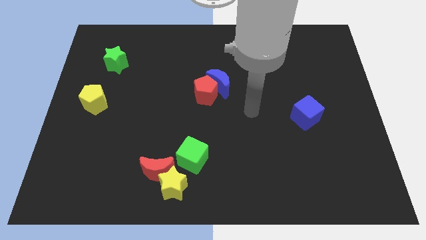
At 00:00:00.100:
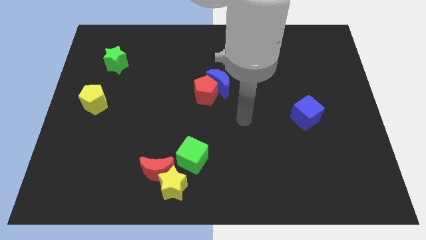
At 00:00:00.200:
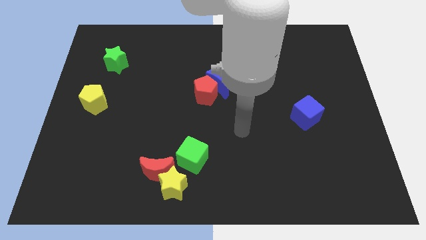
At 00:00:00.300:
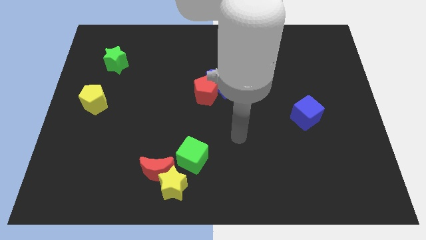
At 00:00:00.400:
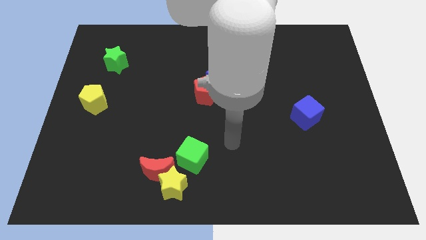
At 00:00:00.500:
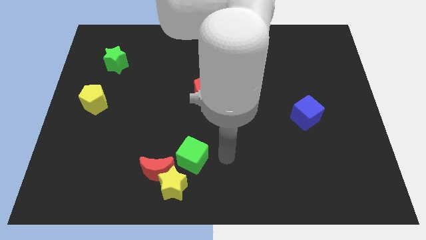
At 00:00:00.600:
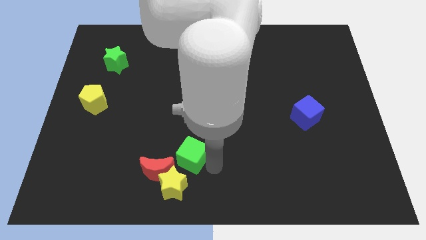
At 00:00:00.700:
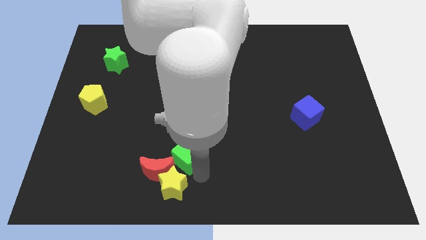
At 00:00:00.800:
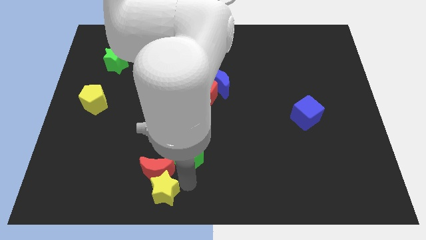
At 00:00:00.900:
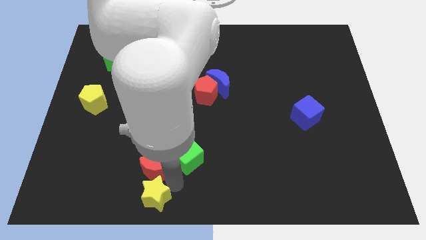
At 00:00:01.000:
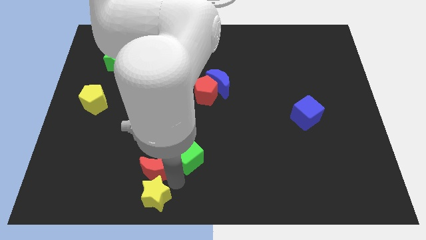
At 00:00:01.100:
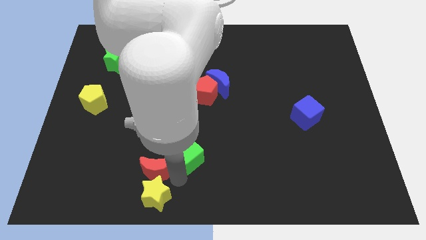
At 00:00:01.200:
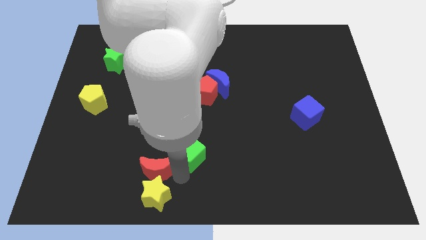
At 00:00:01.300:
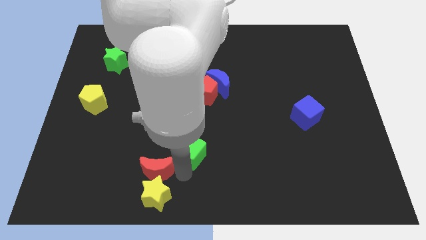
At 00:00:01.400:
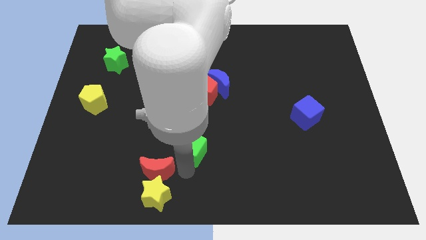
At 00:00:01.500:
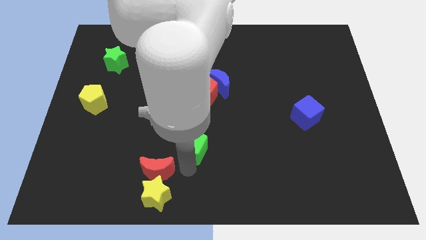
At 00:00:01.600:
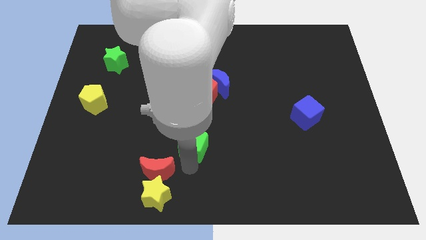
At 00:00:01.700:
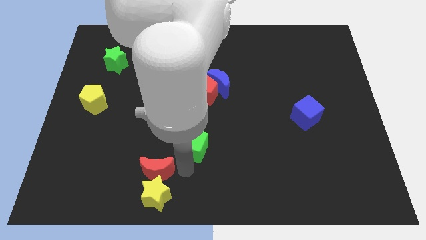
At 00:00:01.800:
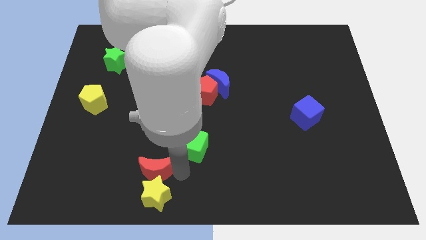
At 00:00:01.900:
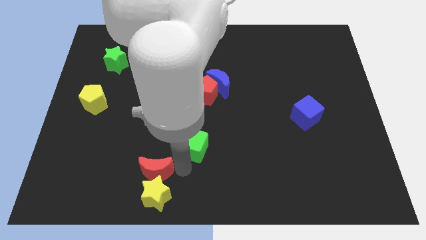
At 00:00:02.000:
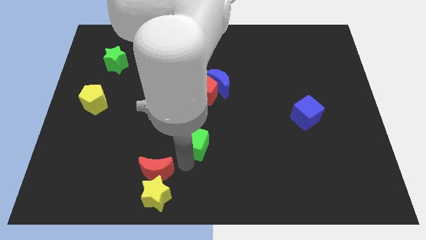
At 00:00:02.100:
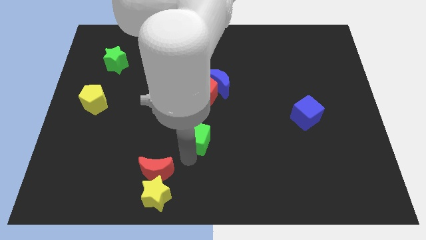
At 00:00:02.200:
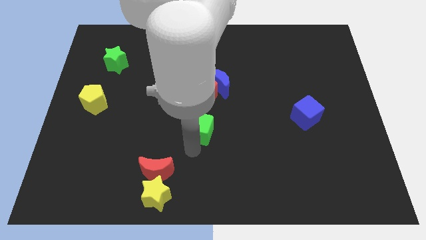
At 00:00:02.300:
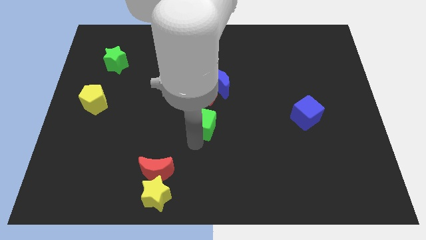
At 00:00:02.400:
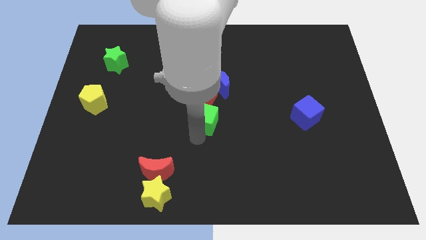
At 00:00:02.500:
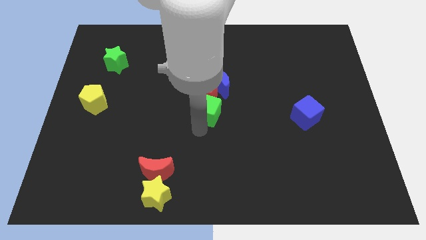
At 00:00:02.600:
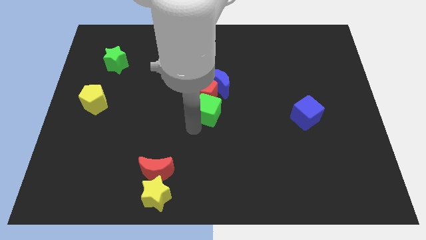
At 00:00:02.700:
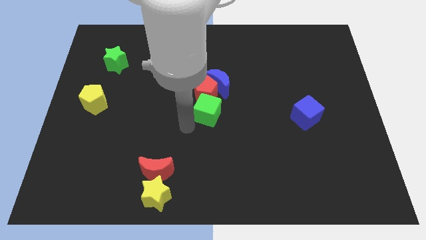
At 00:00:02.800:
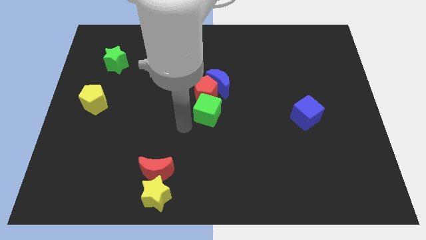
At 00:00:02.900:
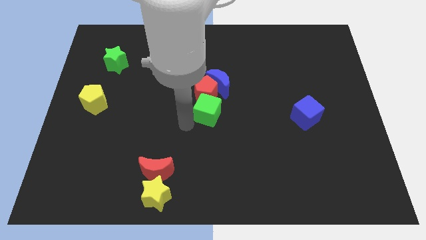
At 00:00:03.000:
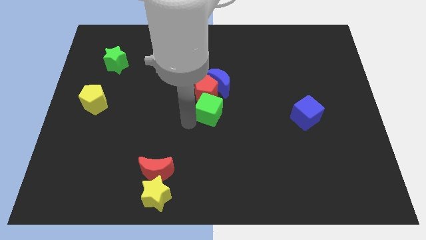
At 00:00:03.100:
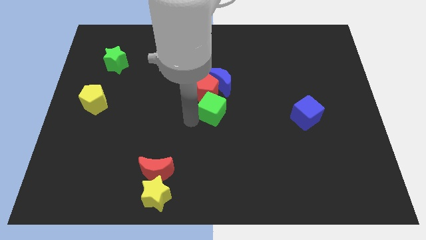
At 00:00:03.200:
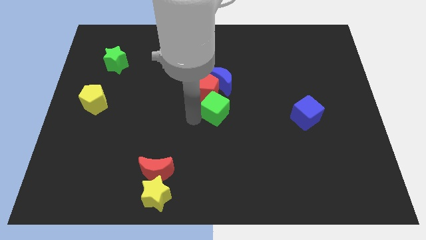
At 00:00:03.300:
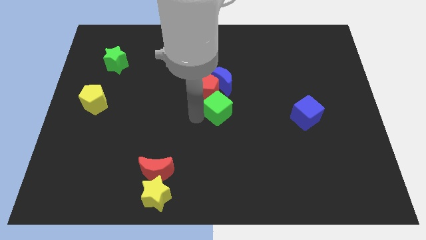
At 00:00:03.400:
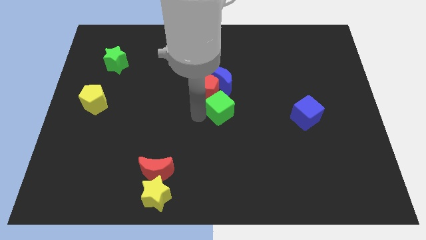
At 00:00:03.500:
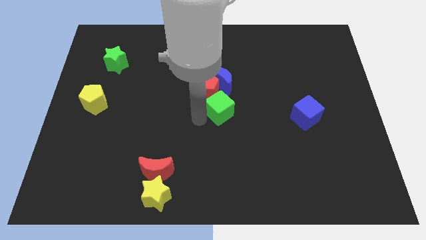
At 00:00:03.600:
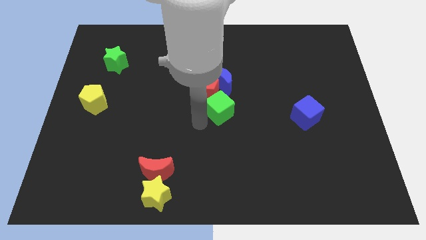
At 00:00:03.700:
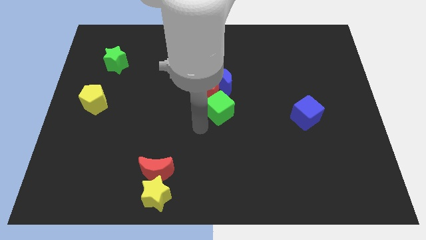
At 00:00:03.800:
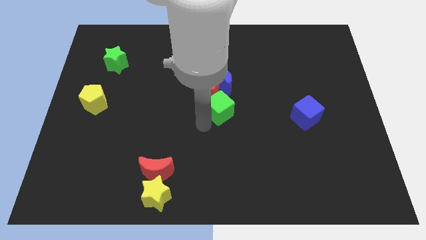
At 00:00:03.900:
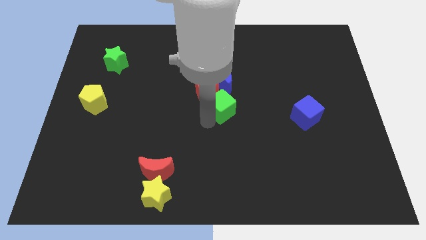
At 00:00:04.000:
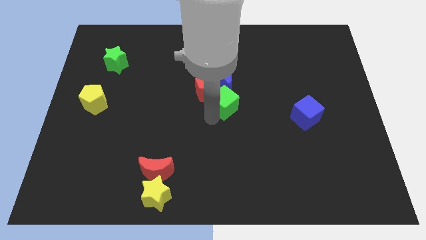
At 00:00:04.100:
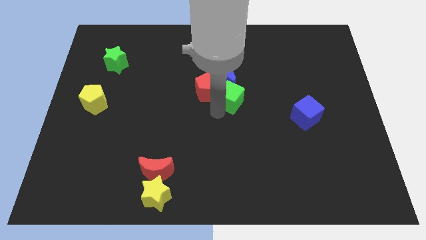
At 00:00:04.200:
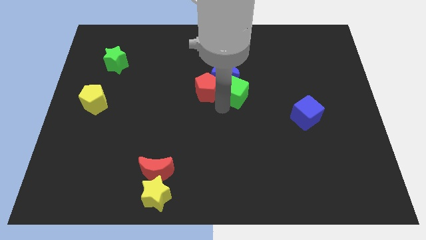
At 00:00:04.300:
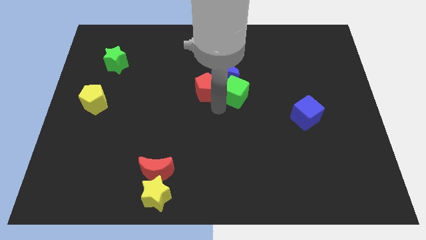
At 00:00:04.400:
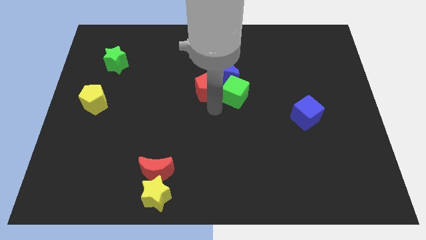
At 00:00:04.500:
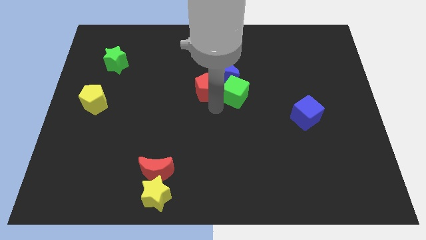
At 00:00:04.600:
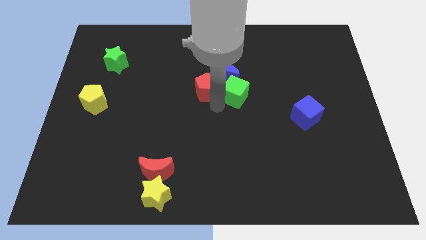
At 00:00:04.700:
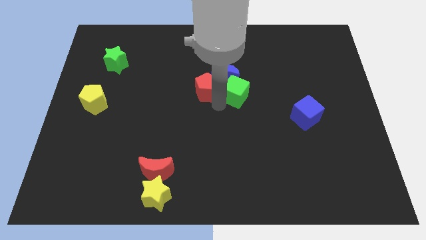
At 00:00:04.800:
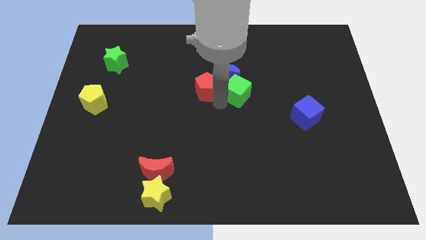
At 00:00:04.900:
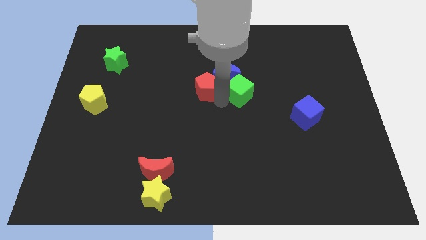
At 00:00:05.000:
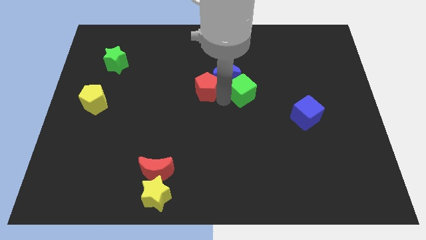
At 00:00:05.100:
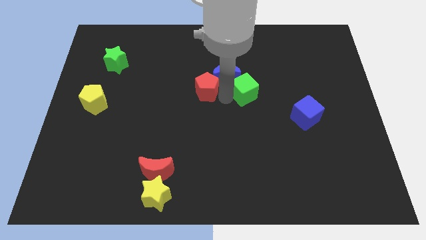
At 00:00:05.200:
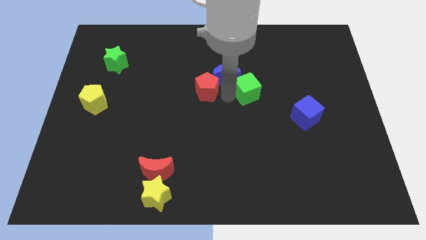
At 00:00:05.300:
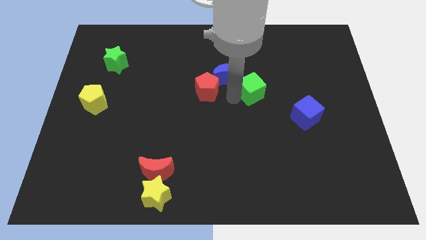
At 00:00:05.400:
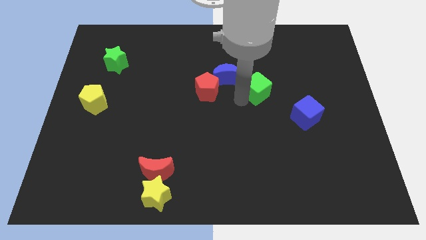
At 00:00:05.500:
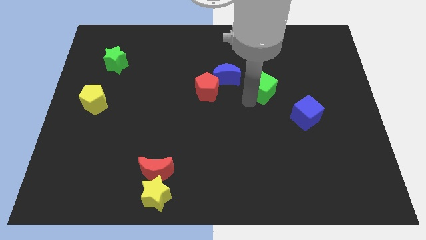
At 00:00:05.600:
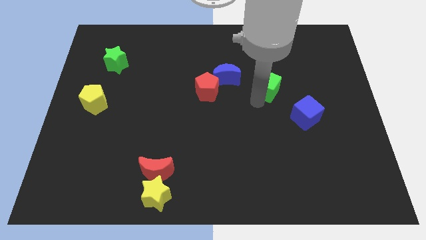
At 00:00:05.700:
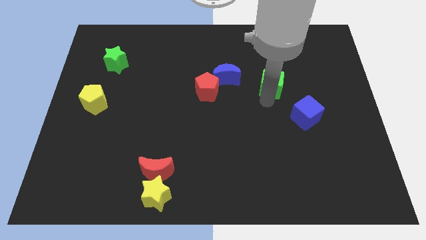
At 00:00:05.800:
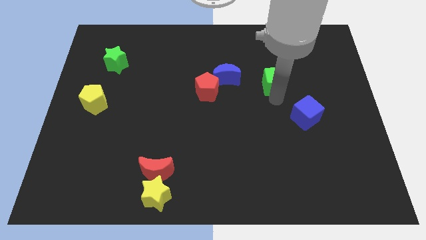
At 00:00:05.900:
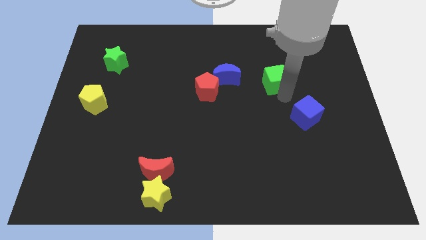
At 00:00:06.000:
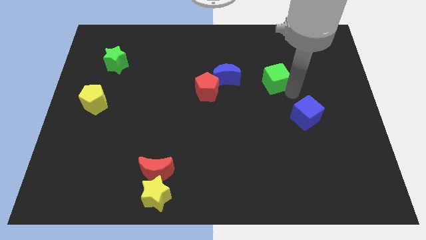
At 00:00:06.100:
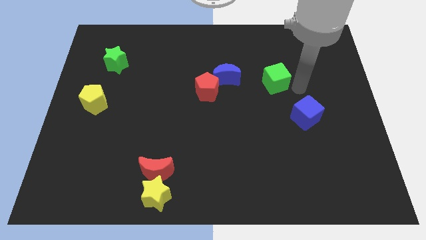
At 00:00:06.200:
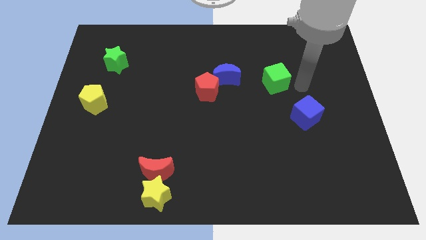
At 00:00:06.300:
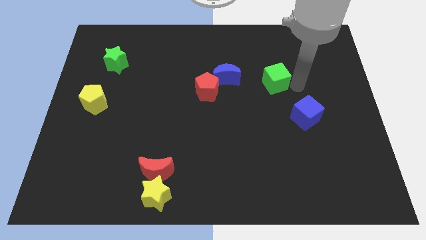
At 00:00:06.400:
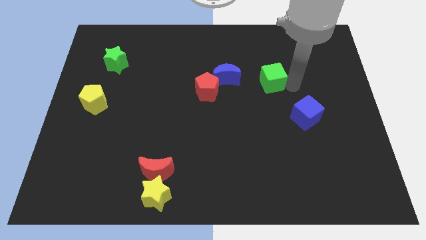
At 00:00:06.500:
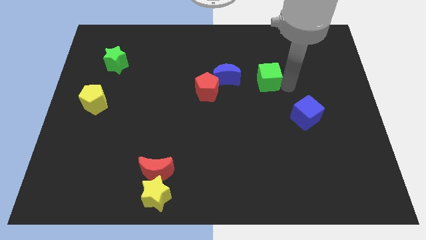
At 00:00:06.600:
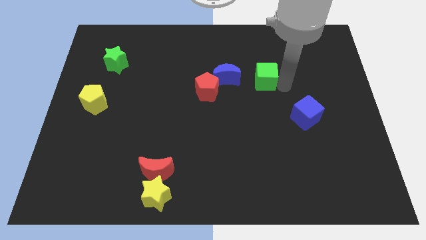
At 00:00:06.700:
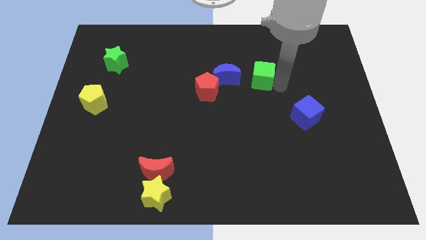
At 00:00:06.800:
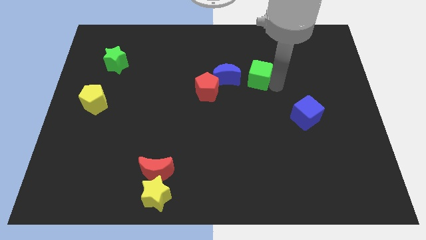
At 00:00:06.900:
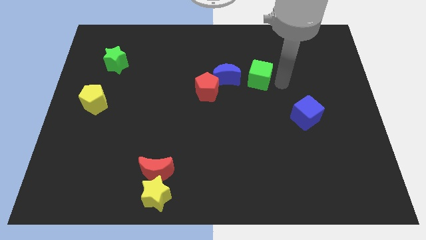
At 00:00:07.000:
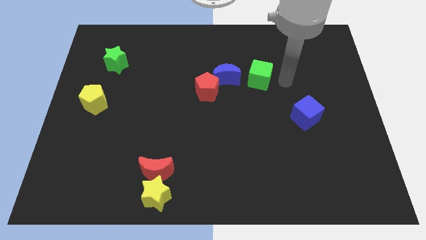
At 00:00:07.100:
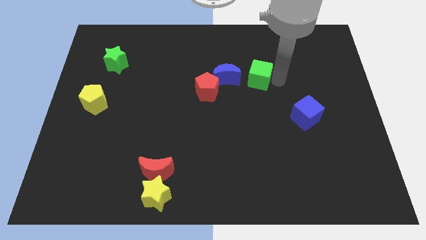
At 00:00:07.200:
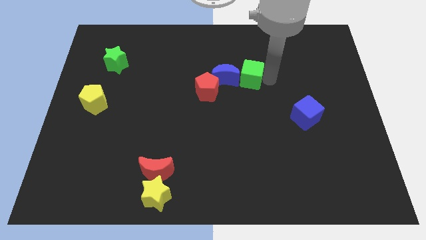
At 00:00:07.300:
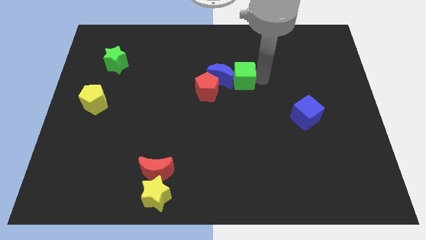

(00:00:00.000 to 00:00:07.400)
move the green cube to the top right of the red pentagon
